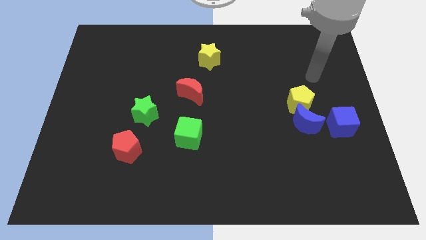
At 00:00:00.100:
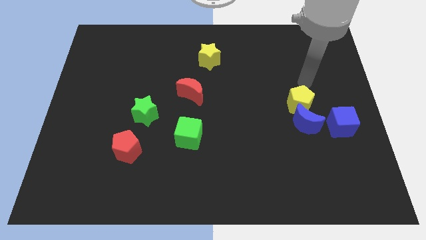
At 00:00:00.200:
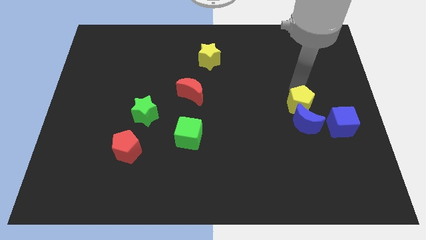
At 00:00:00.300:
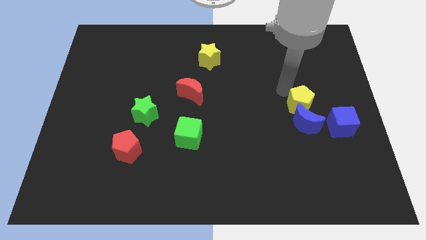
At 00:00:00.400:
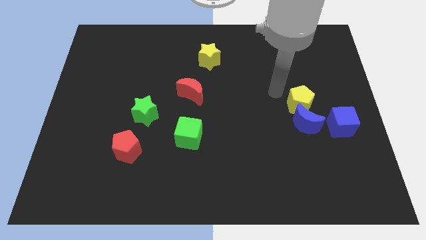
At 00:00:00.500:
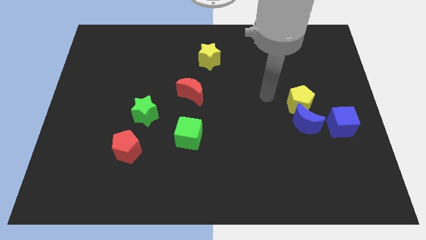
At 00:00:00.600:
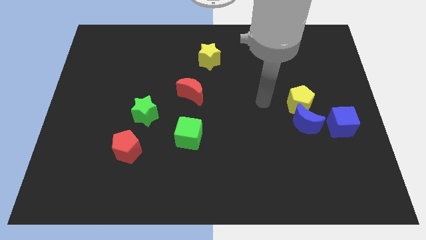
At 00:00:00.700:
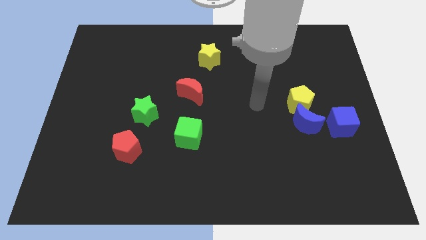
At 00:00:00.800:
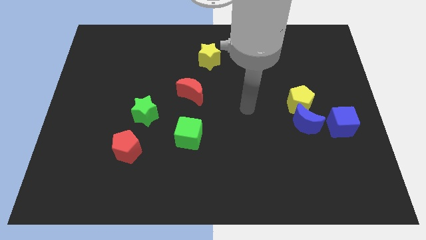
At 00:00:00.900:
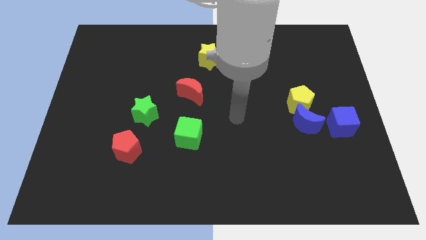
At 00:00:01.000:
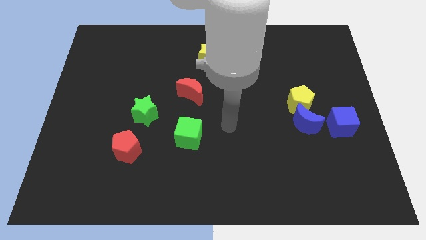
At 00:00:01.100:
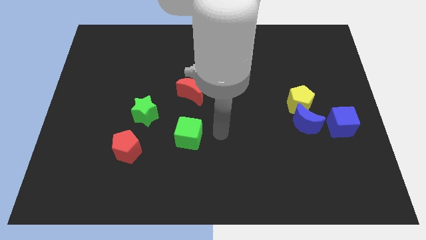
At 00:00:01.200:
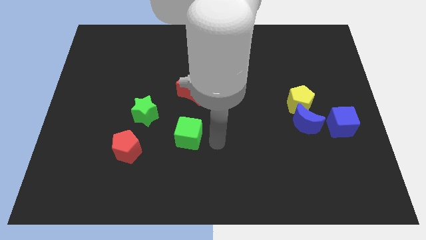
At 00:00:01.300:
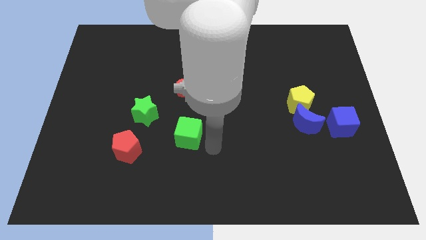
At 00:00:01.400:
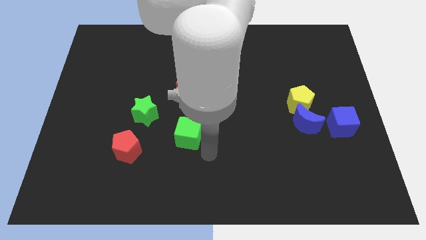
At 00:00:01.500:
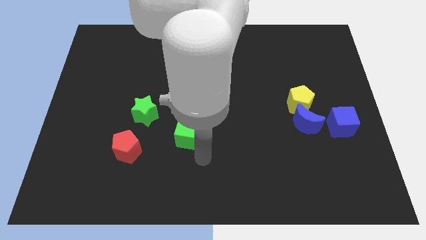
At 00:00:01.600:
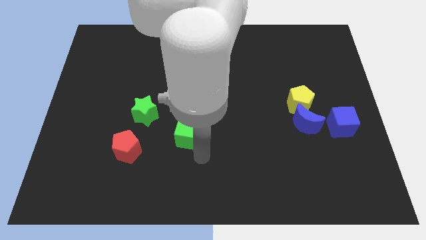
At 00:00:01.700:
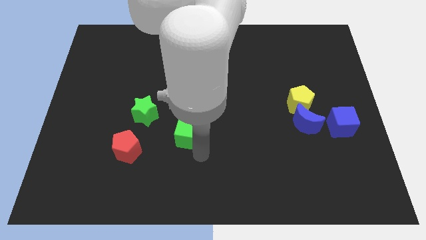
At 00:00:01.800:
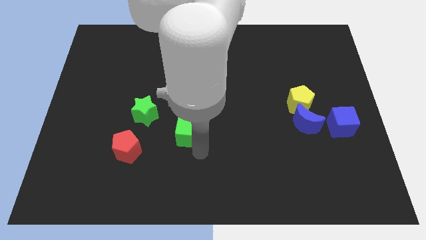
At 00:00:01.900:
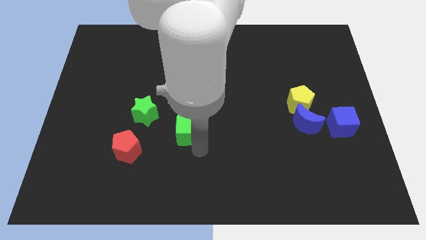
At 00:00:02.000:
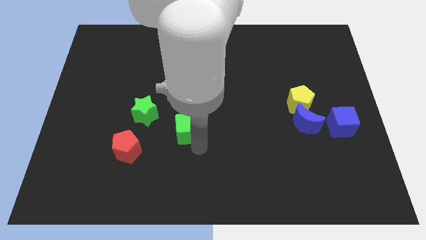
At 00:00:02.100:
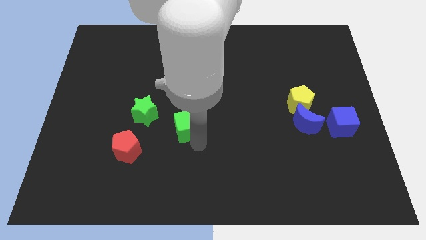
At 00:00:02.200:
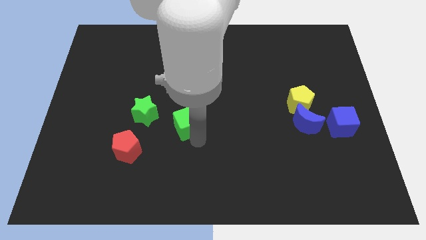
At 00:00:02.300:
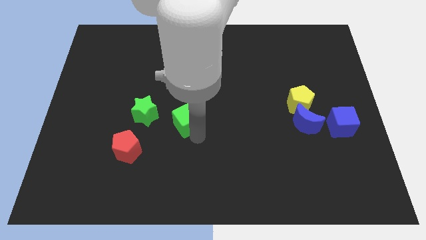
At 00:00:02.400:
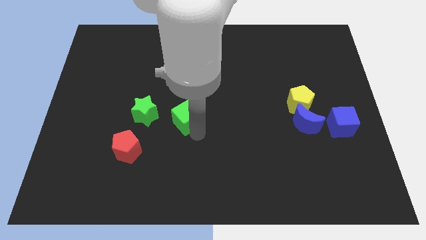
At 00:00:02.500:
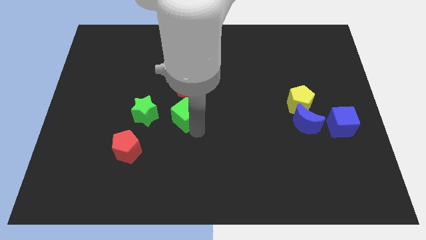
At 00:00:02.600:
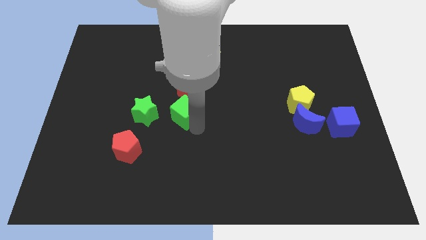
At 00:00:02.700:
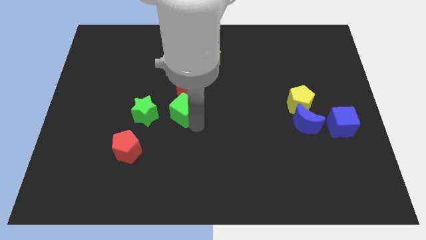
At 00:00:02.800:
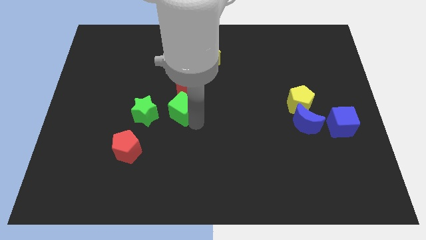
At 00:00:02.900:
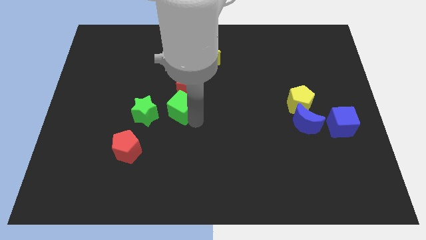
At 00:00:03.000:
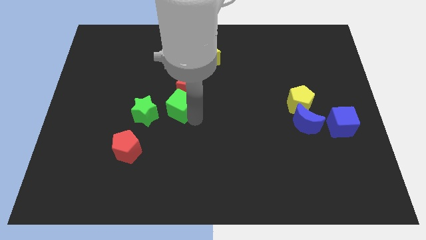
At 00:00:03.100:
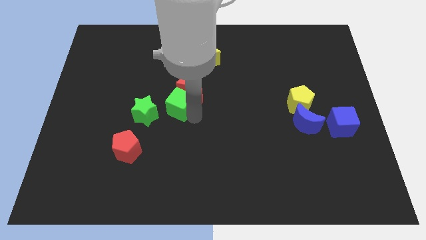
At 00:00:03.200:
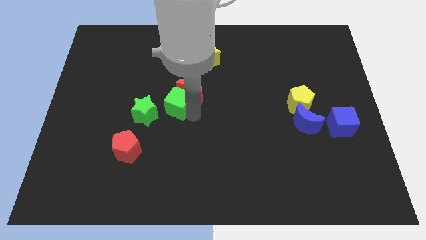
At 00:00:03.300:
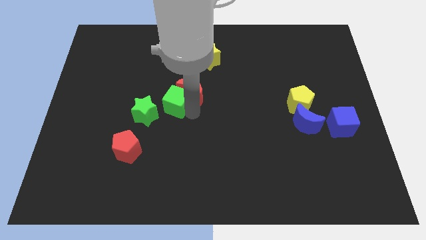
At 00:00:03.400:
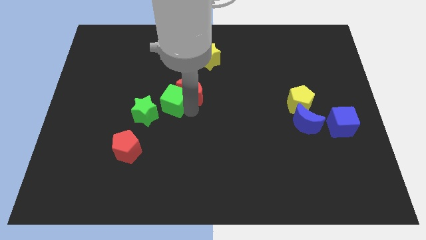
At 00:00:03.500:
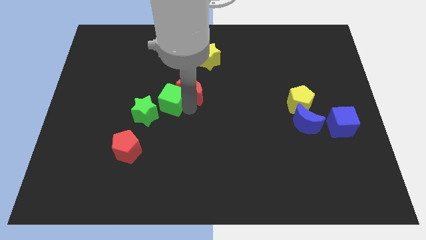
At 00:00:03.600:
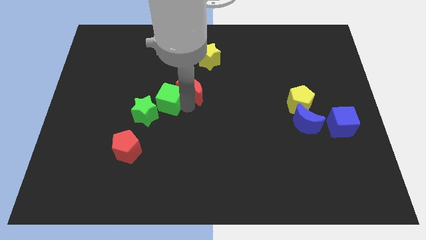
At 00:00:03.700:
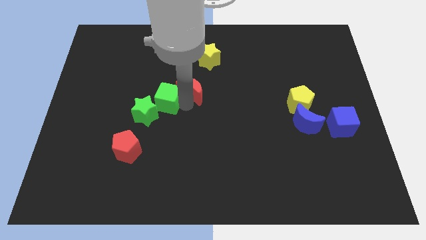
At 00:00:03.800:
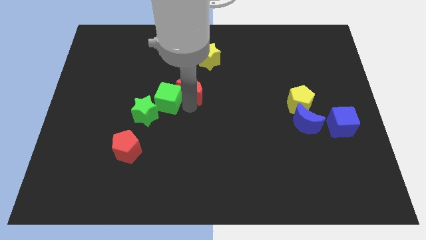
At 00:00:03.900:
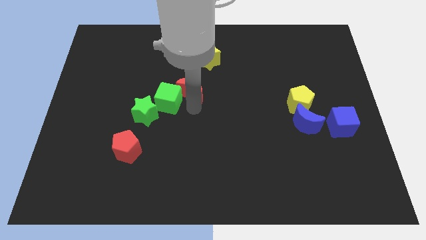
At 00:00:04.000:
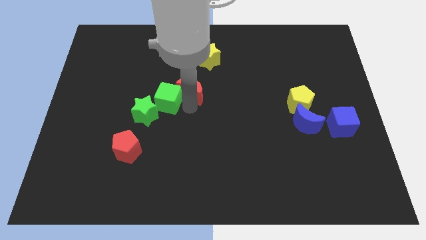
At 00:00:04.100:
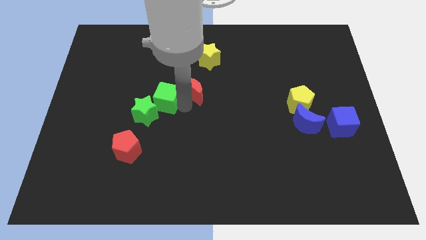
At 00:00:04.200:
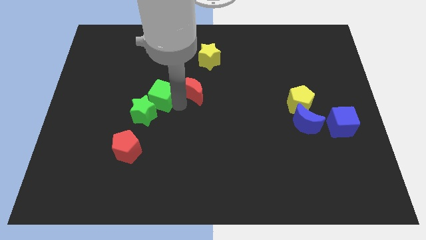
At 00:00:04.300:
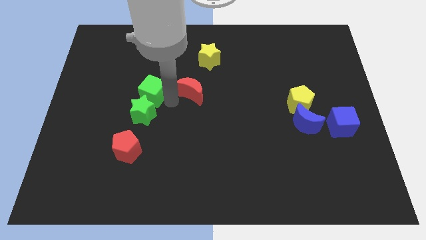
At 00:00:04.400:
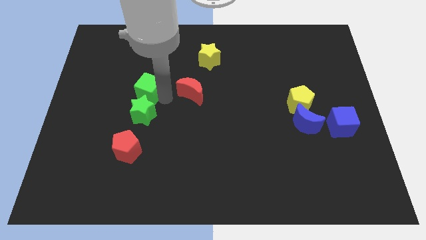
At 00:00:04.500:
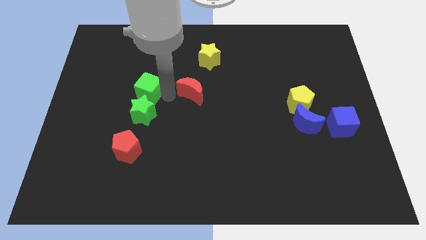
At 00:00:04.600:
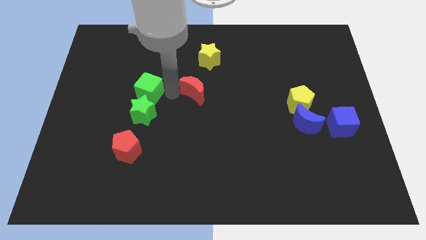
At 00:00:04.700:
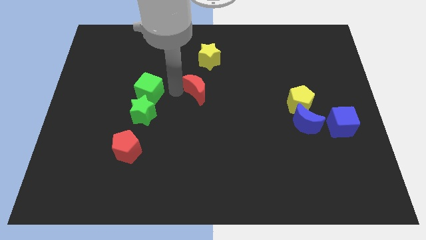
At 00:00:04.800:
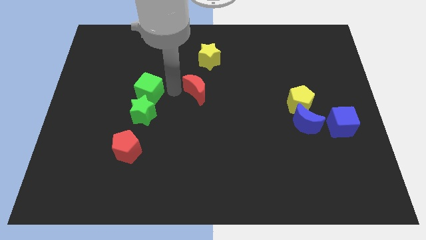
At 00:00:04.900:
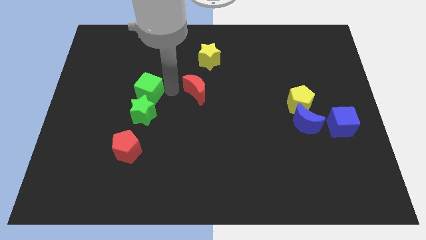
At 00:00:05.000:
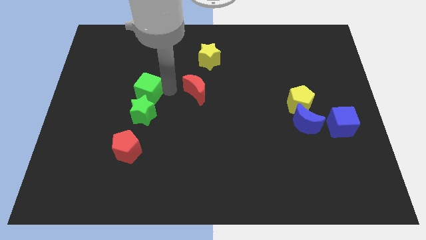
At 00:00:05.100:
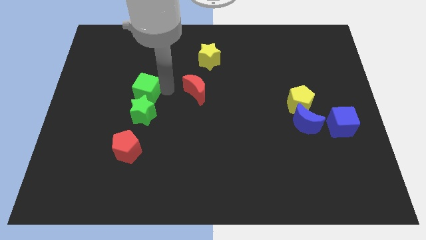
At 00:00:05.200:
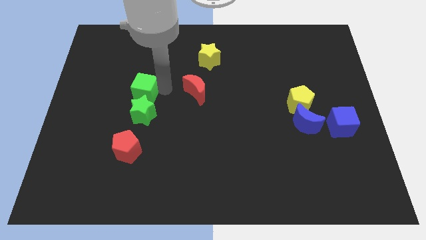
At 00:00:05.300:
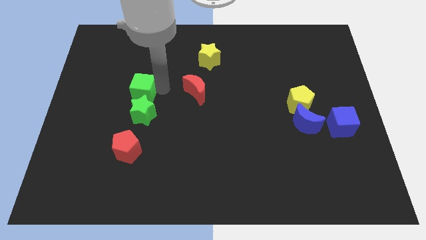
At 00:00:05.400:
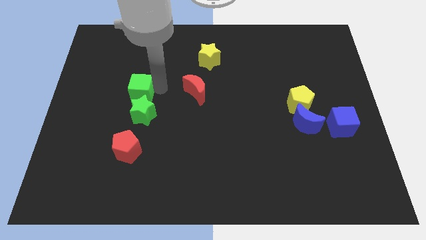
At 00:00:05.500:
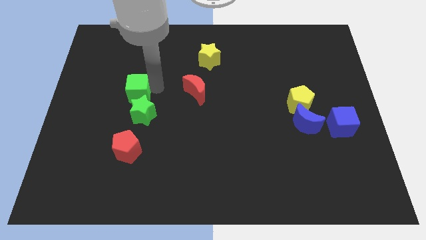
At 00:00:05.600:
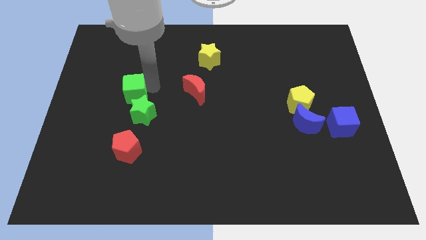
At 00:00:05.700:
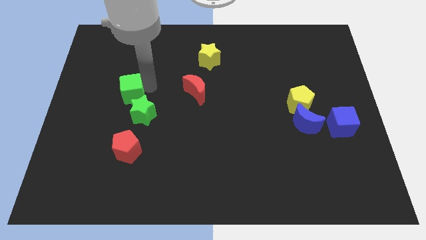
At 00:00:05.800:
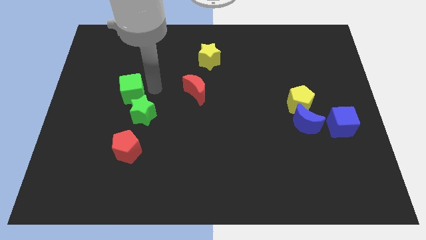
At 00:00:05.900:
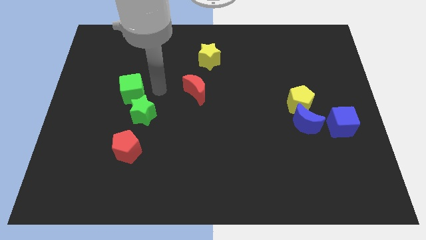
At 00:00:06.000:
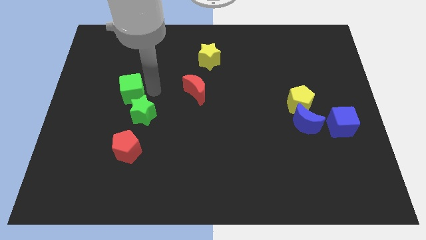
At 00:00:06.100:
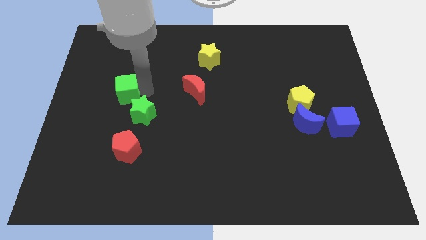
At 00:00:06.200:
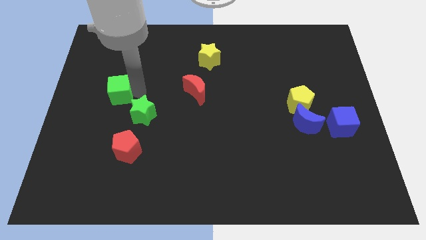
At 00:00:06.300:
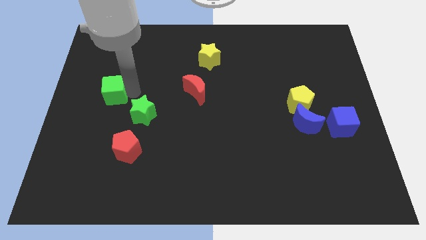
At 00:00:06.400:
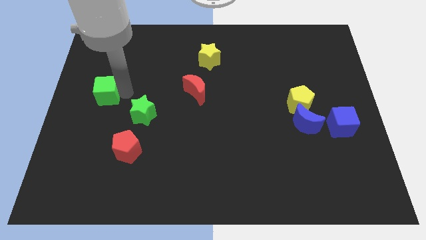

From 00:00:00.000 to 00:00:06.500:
slide the green cube to the left side of the board

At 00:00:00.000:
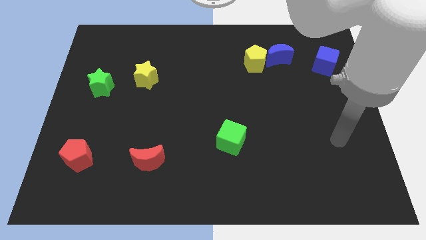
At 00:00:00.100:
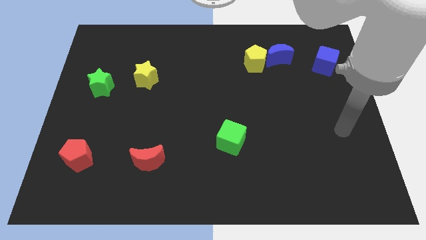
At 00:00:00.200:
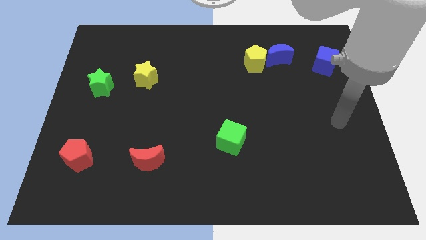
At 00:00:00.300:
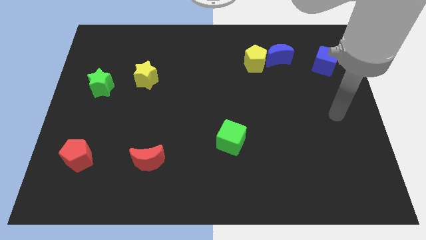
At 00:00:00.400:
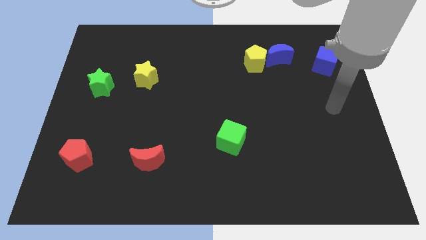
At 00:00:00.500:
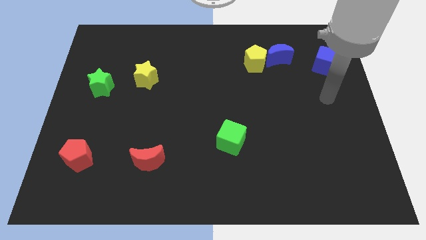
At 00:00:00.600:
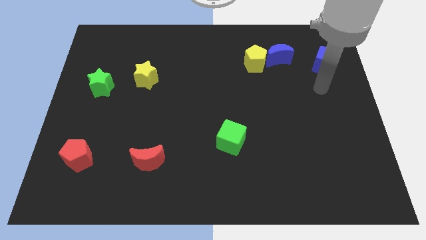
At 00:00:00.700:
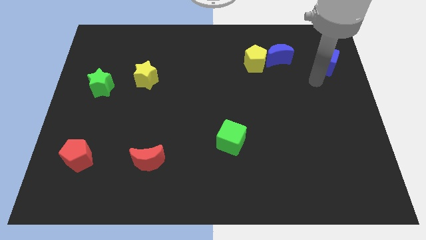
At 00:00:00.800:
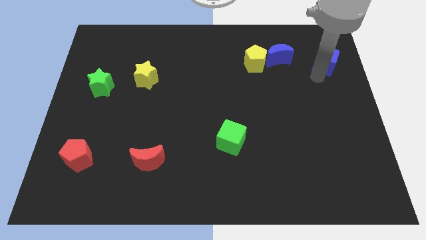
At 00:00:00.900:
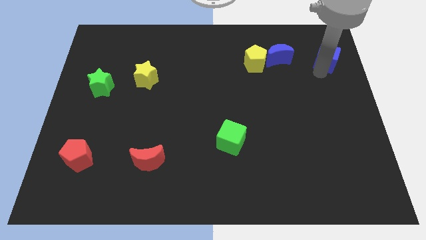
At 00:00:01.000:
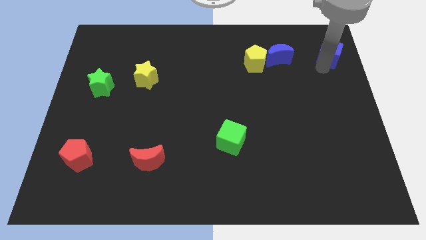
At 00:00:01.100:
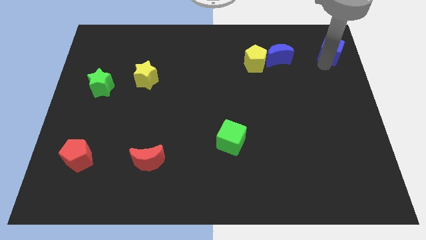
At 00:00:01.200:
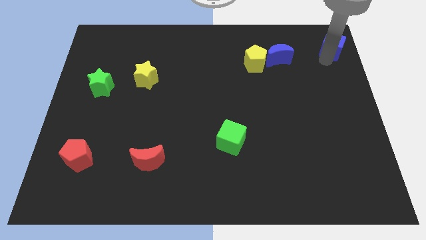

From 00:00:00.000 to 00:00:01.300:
push the blue cube to the top right
